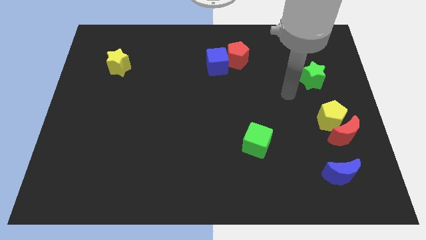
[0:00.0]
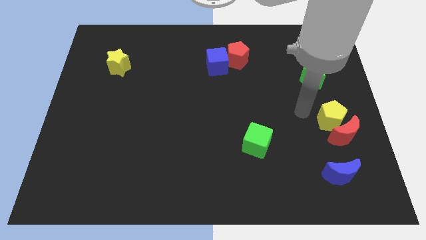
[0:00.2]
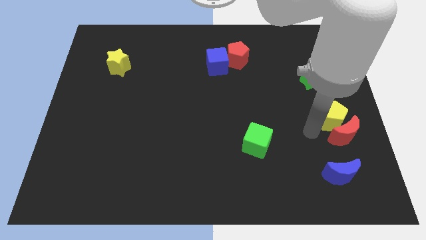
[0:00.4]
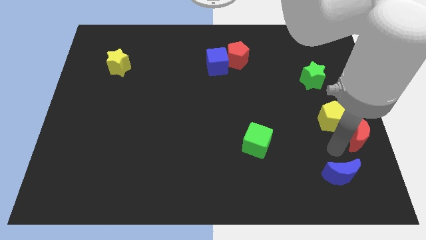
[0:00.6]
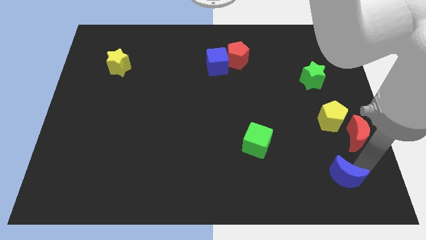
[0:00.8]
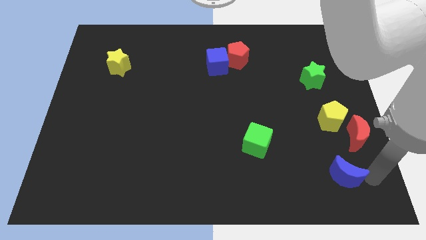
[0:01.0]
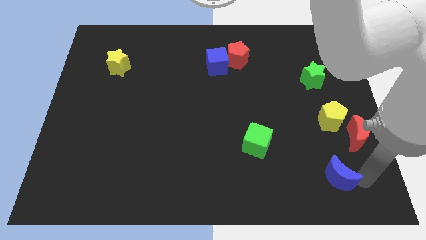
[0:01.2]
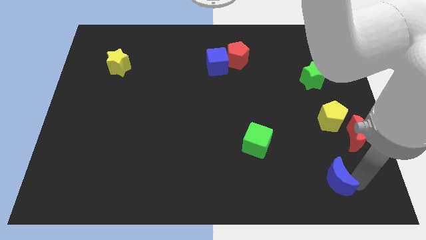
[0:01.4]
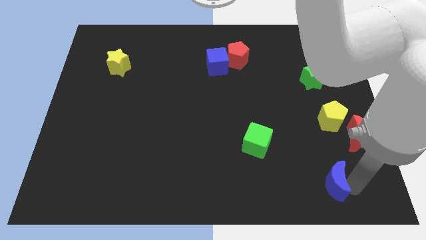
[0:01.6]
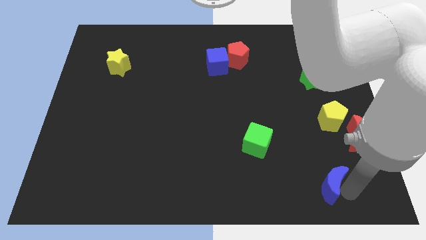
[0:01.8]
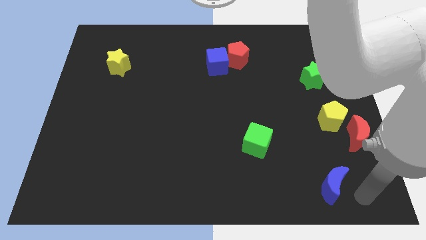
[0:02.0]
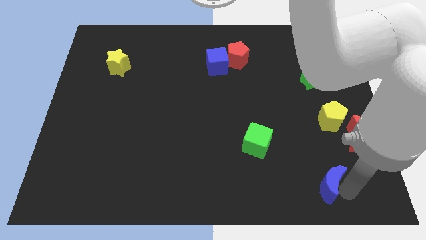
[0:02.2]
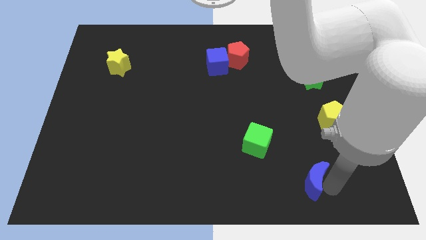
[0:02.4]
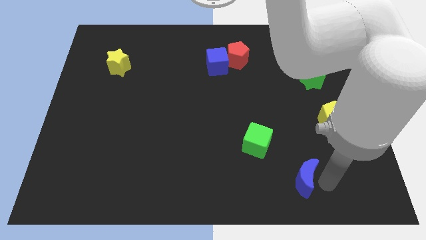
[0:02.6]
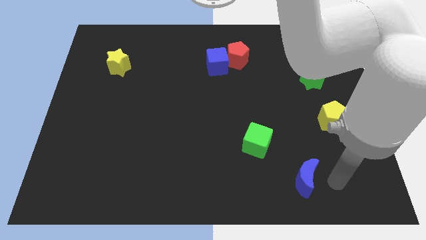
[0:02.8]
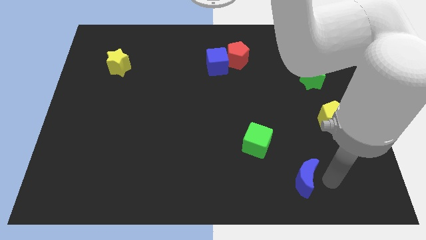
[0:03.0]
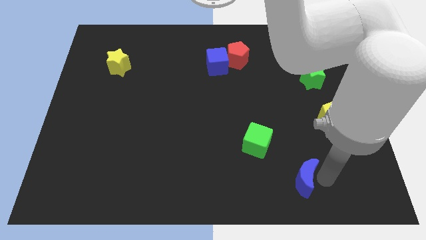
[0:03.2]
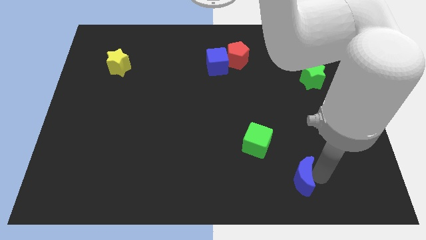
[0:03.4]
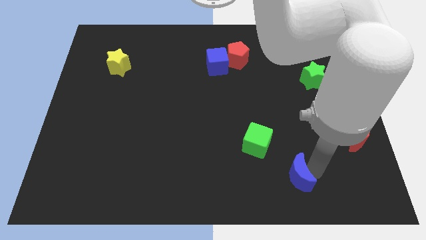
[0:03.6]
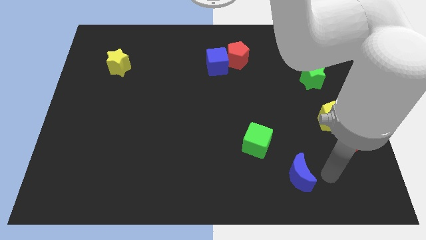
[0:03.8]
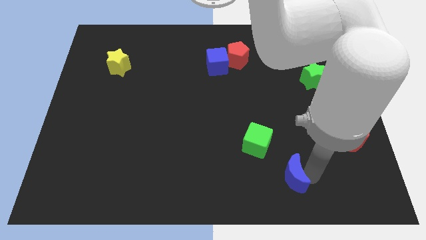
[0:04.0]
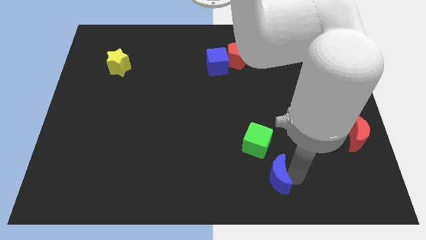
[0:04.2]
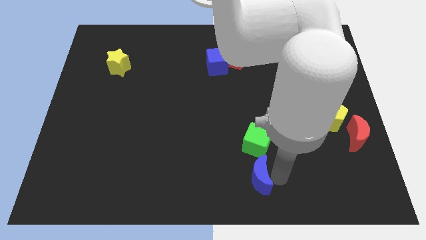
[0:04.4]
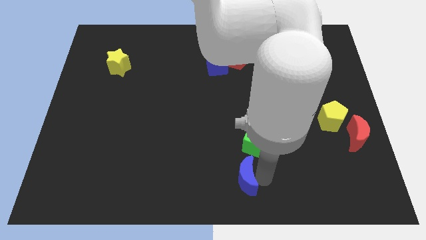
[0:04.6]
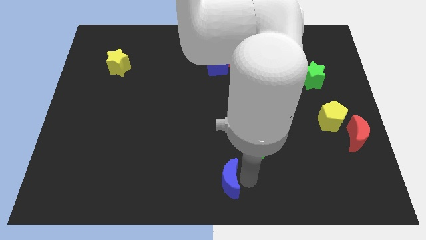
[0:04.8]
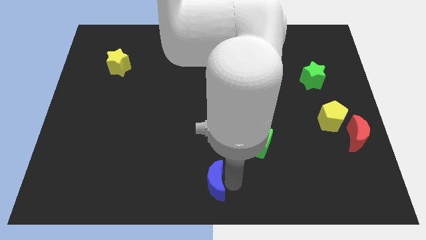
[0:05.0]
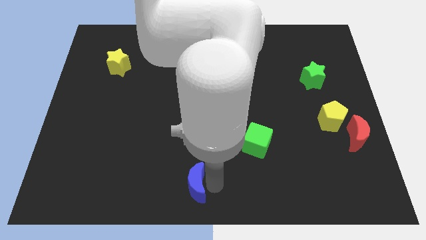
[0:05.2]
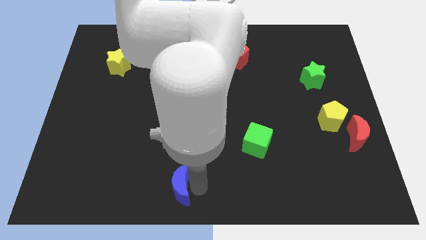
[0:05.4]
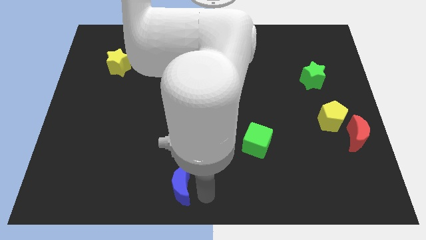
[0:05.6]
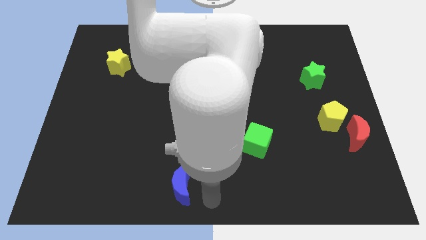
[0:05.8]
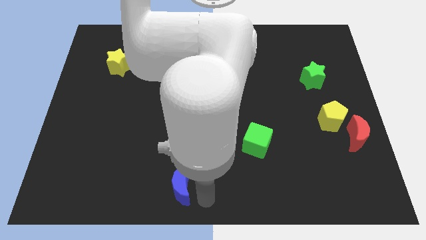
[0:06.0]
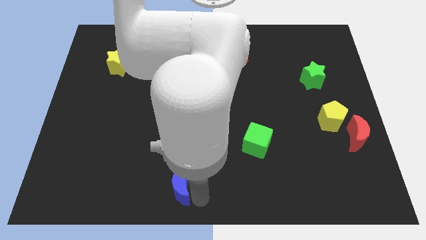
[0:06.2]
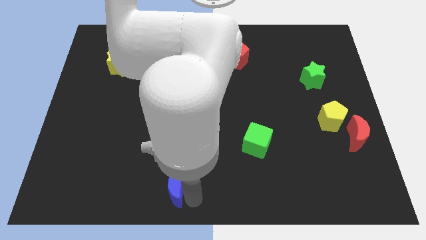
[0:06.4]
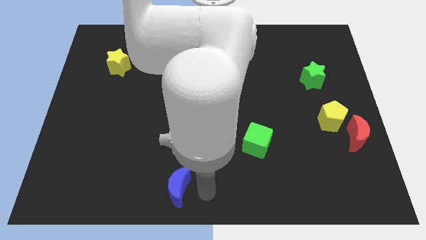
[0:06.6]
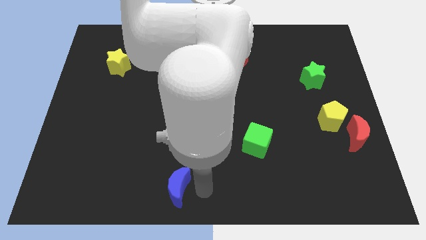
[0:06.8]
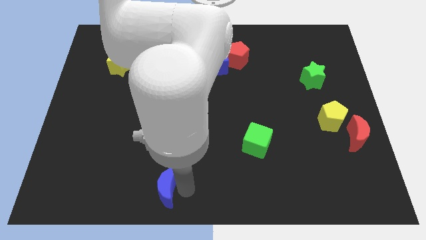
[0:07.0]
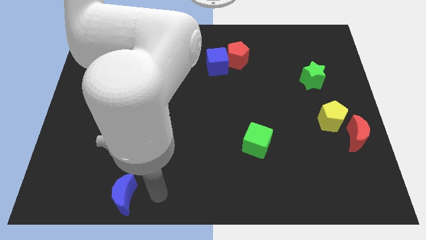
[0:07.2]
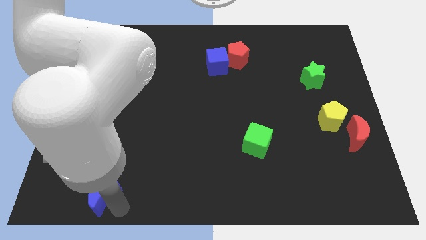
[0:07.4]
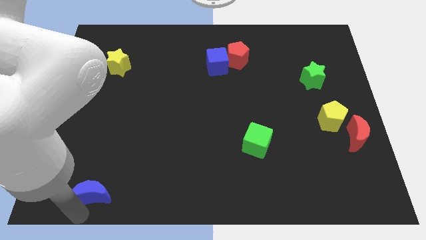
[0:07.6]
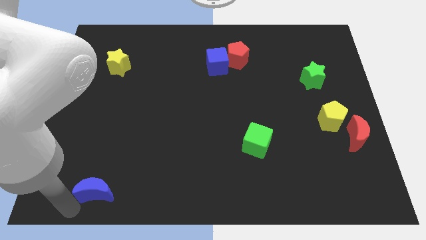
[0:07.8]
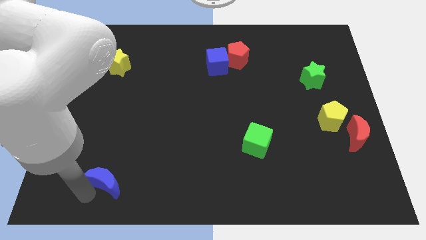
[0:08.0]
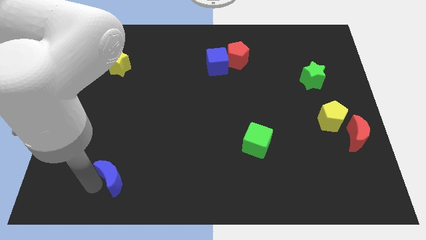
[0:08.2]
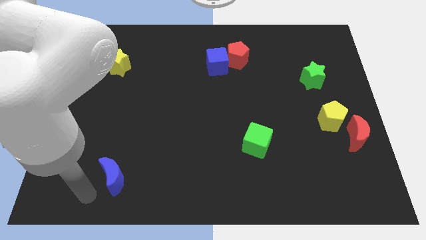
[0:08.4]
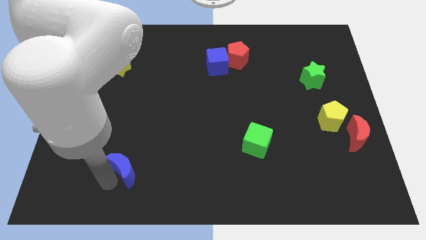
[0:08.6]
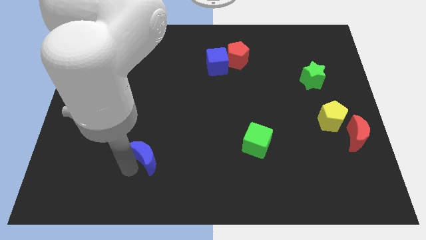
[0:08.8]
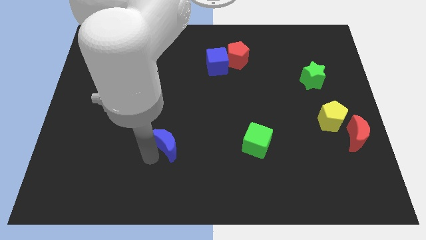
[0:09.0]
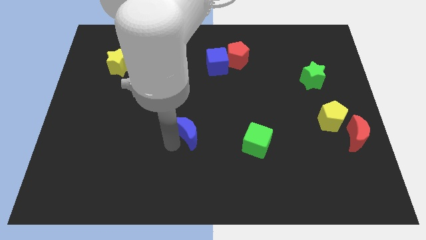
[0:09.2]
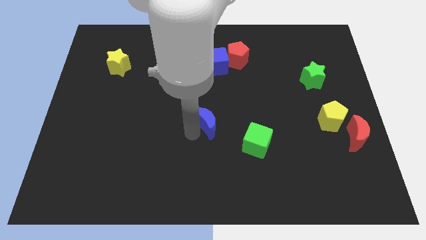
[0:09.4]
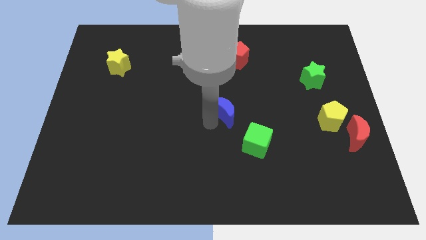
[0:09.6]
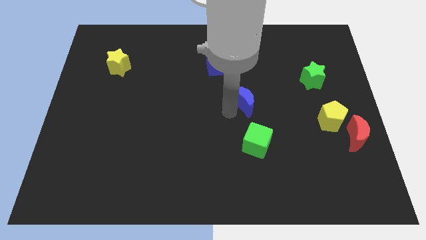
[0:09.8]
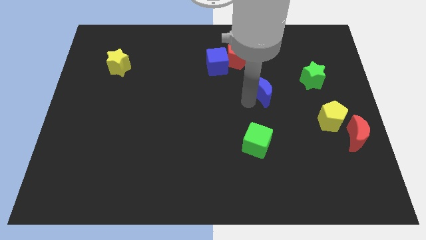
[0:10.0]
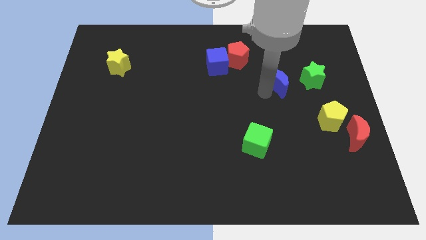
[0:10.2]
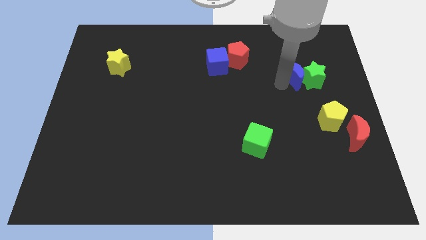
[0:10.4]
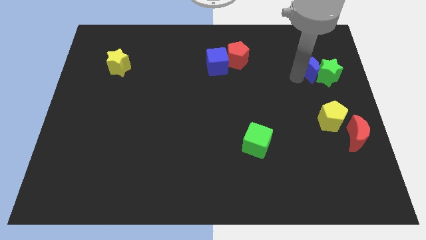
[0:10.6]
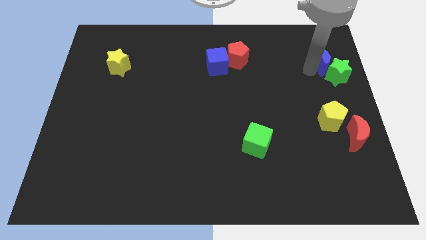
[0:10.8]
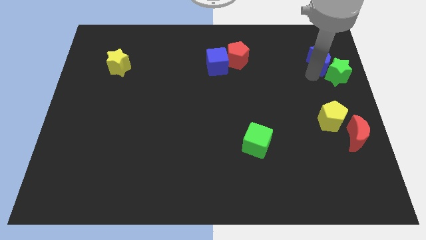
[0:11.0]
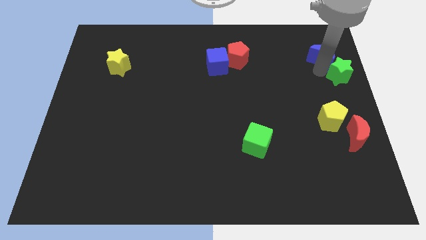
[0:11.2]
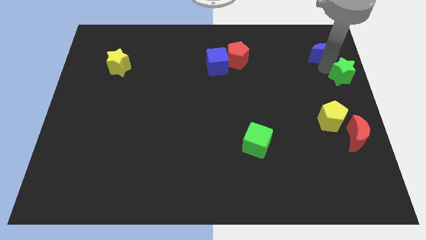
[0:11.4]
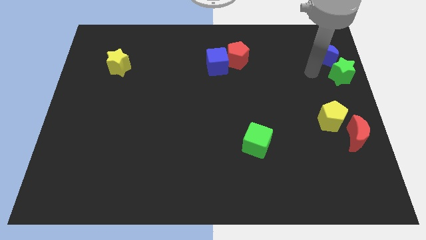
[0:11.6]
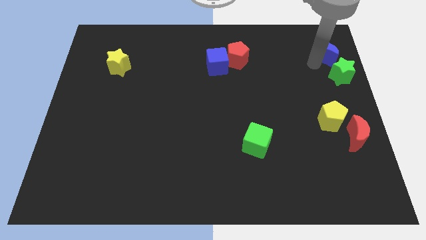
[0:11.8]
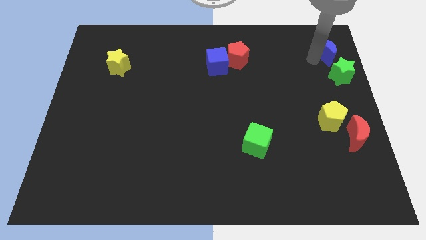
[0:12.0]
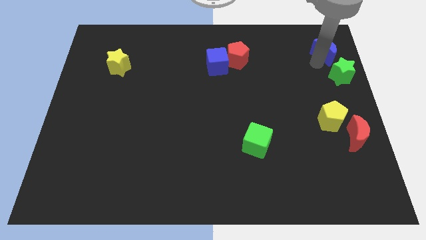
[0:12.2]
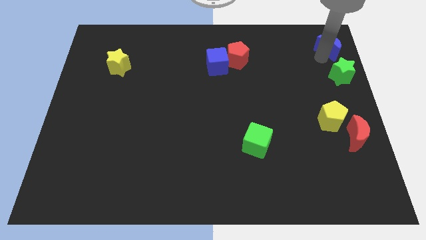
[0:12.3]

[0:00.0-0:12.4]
put the blue moon to the top right corner

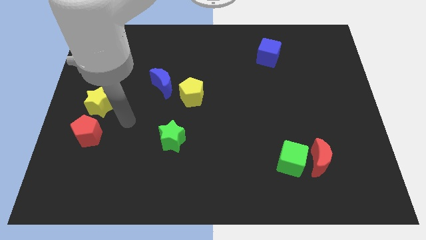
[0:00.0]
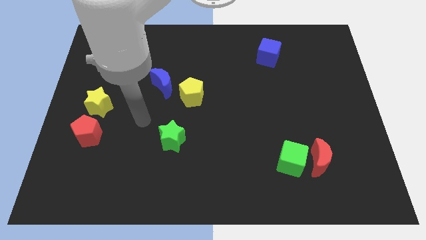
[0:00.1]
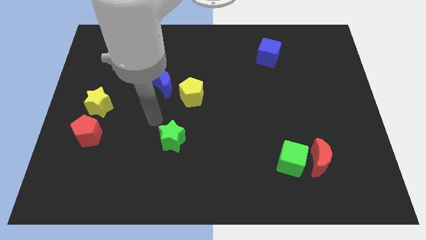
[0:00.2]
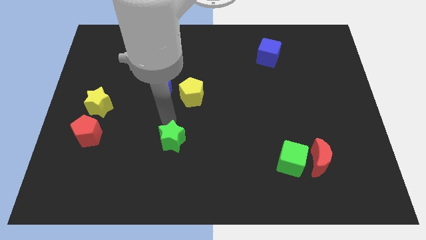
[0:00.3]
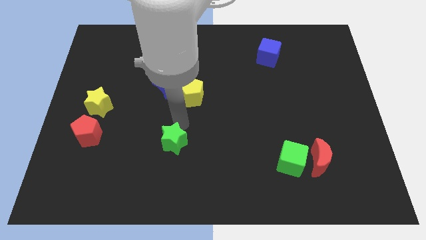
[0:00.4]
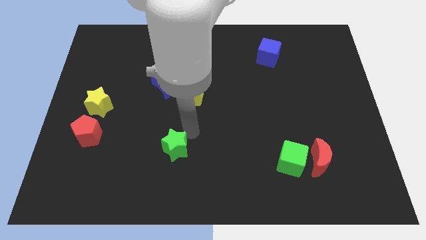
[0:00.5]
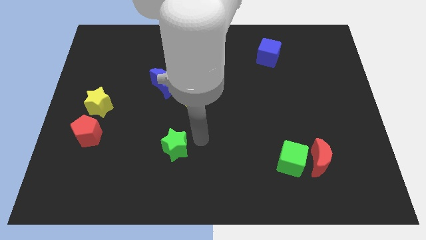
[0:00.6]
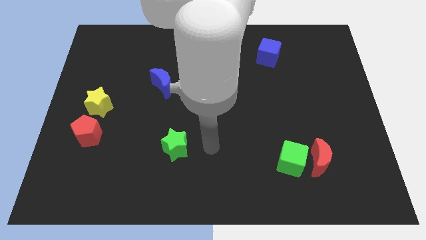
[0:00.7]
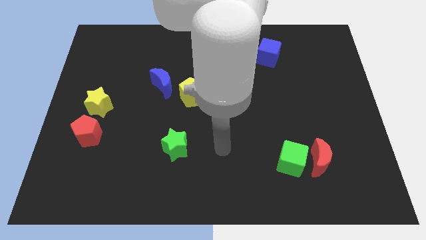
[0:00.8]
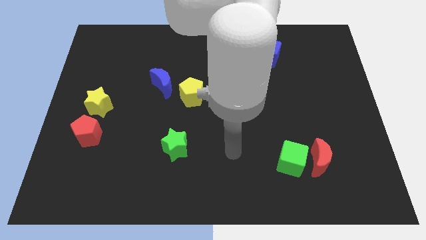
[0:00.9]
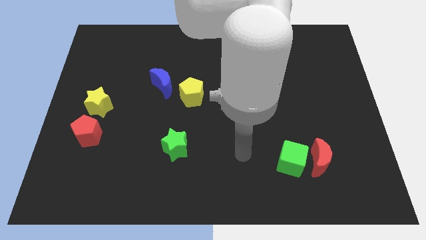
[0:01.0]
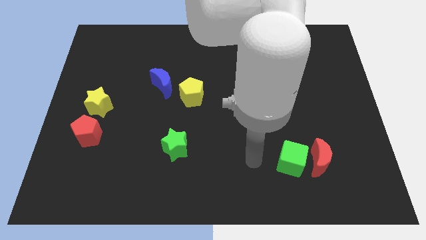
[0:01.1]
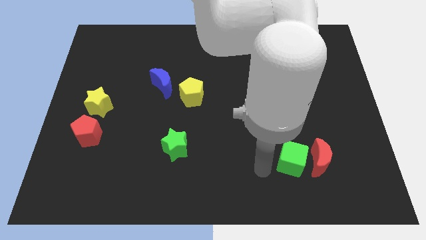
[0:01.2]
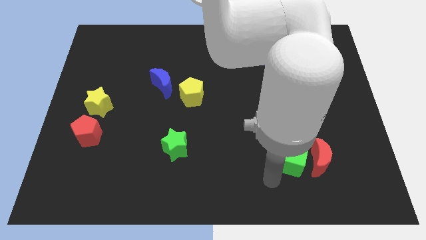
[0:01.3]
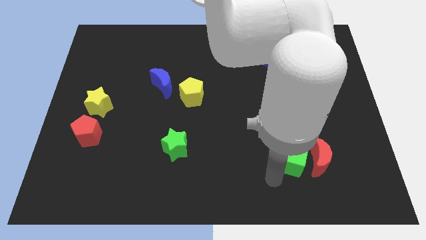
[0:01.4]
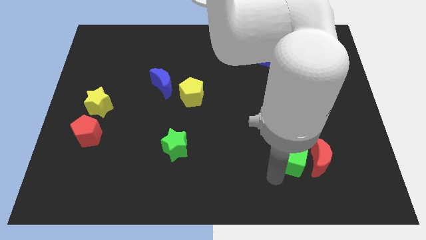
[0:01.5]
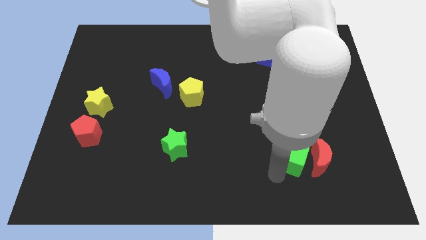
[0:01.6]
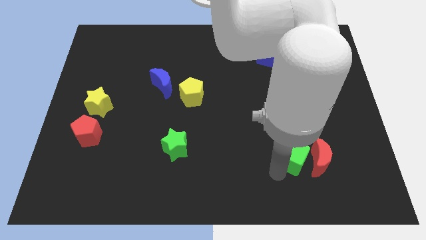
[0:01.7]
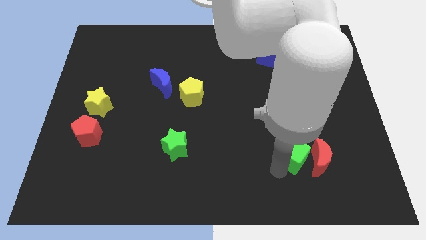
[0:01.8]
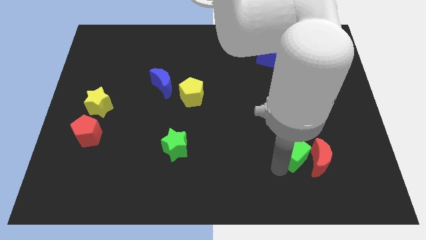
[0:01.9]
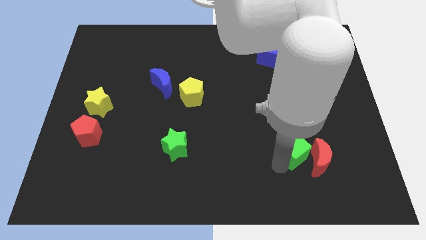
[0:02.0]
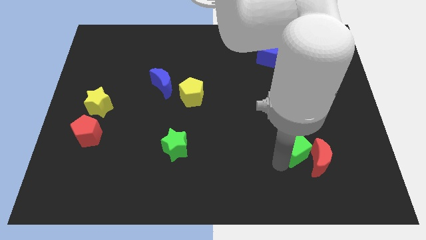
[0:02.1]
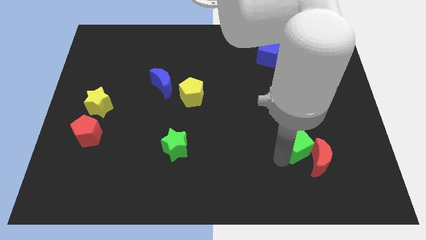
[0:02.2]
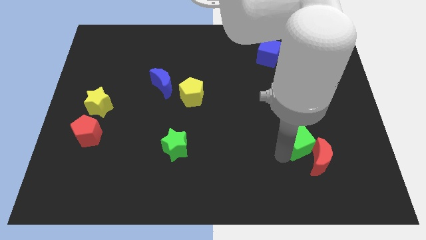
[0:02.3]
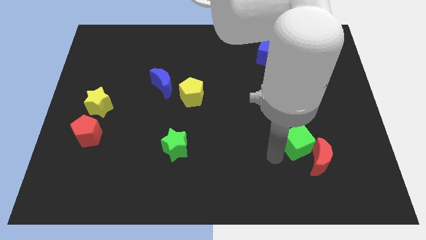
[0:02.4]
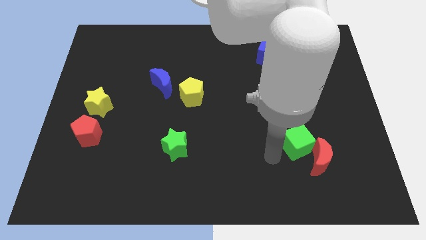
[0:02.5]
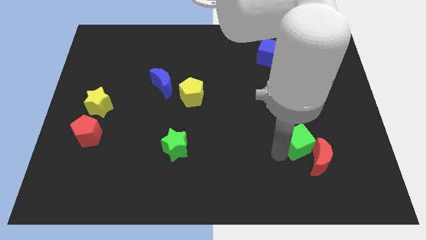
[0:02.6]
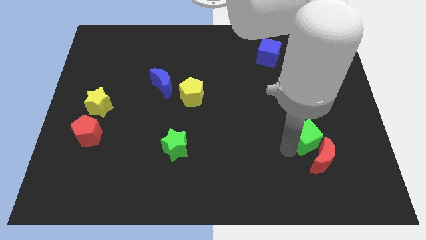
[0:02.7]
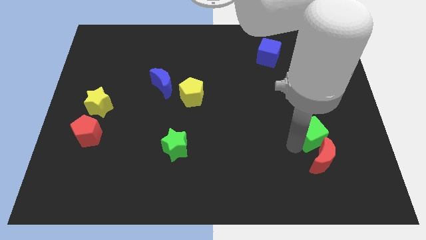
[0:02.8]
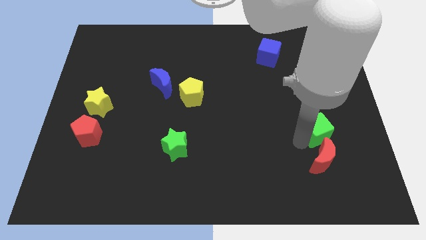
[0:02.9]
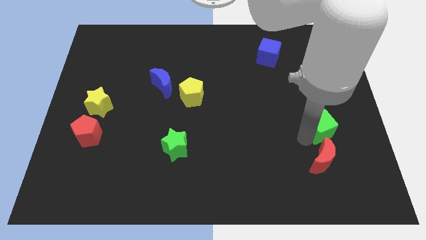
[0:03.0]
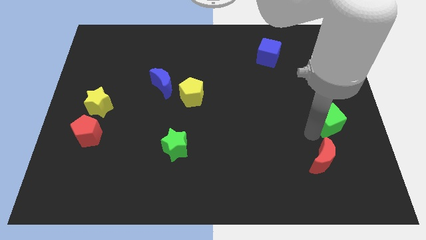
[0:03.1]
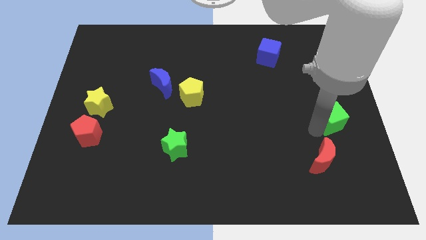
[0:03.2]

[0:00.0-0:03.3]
move the green cube to the right side of the board
